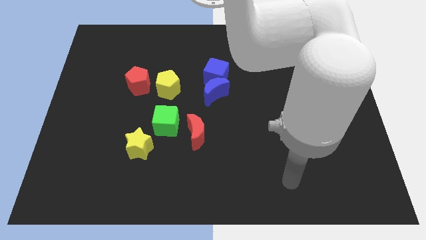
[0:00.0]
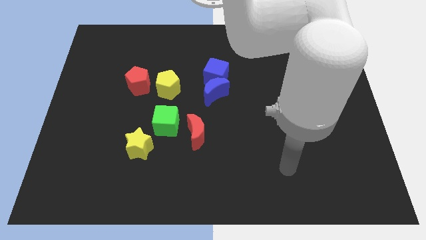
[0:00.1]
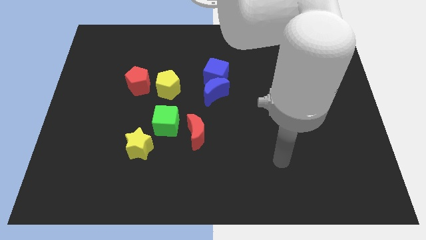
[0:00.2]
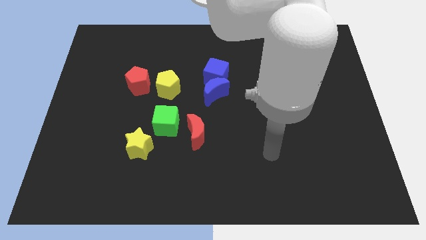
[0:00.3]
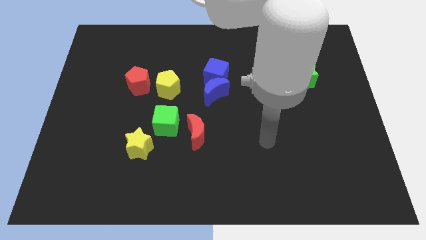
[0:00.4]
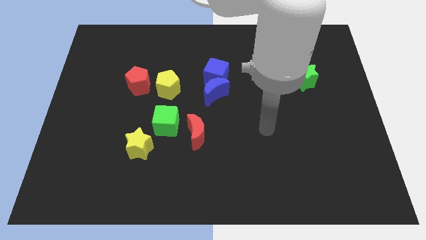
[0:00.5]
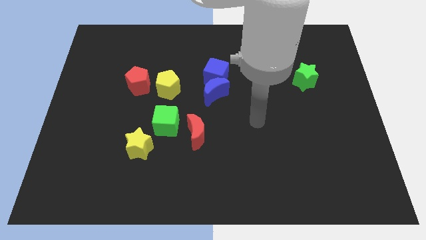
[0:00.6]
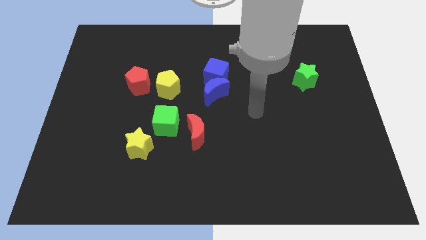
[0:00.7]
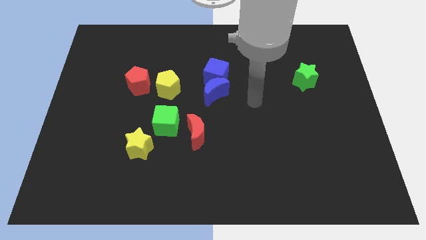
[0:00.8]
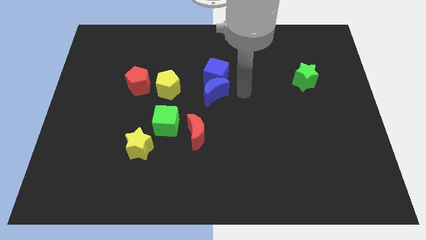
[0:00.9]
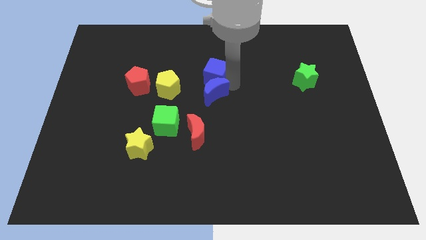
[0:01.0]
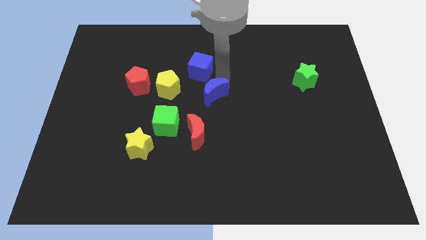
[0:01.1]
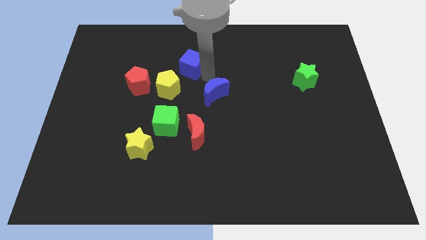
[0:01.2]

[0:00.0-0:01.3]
pull the blue moon apart from the blue cube

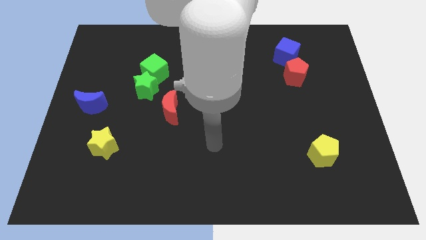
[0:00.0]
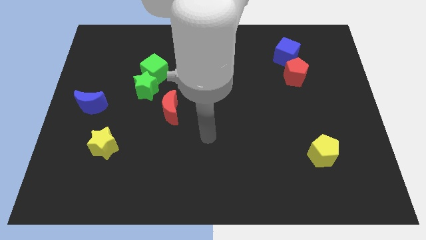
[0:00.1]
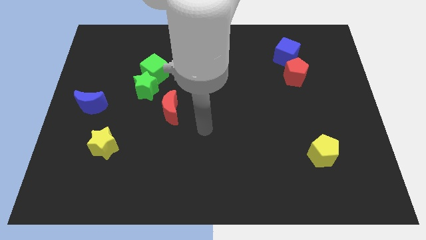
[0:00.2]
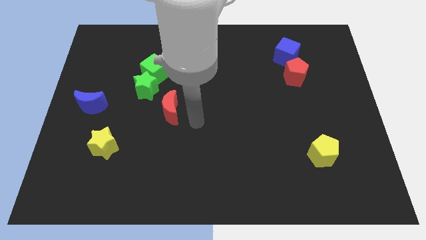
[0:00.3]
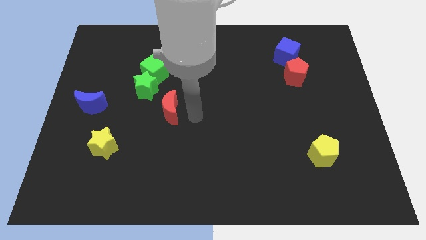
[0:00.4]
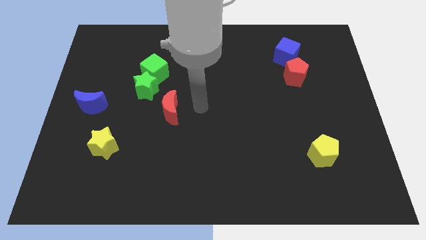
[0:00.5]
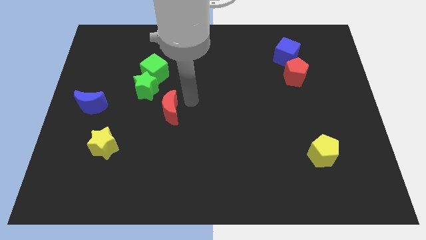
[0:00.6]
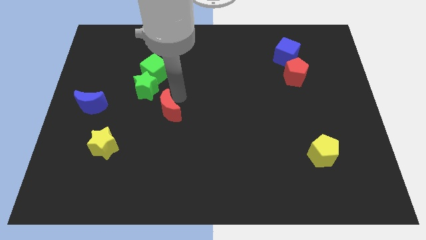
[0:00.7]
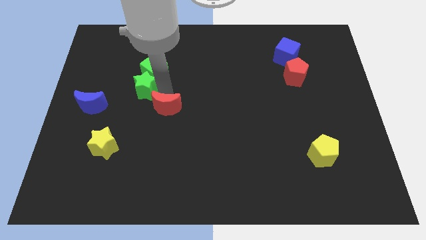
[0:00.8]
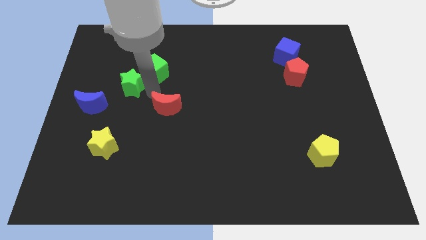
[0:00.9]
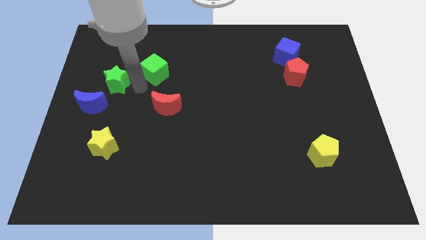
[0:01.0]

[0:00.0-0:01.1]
separate the green cube from the green star

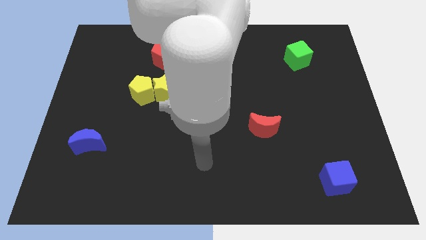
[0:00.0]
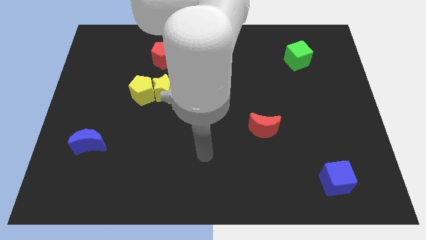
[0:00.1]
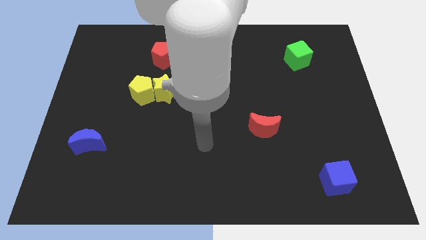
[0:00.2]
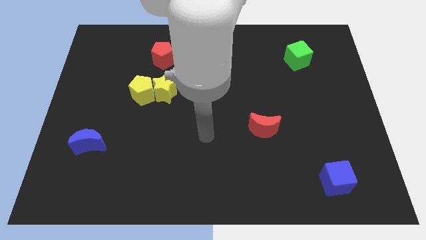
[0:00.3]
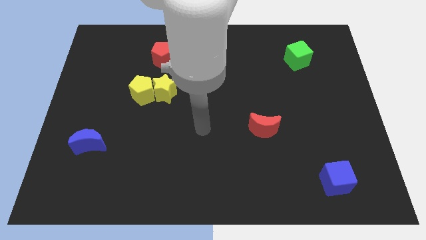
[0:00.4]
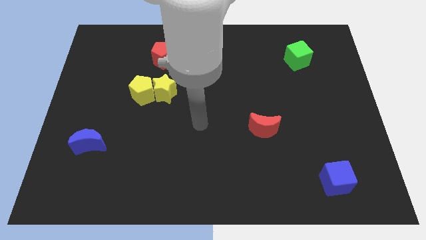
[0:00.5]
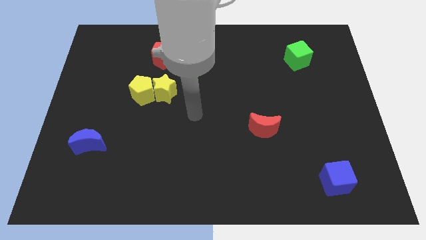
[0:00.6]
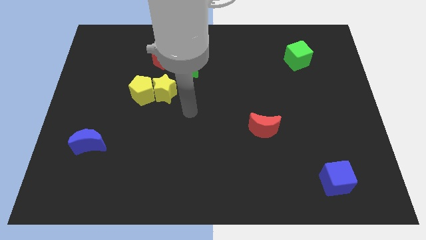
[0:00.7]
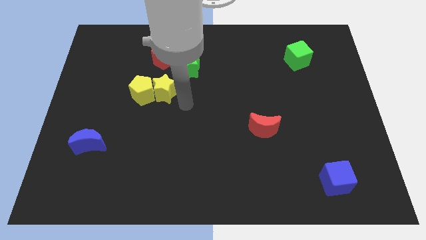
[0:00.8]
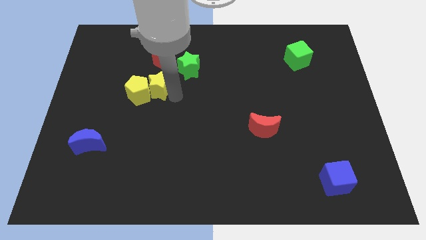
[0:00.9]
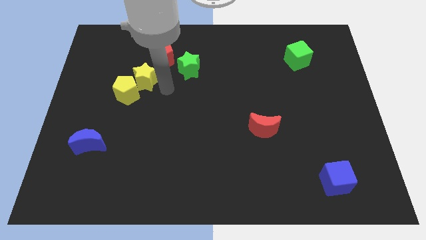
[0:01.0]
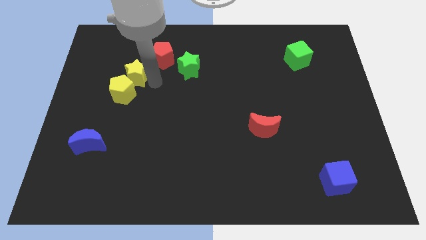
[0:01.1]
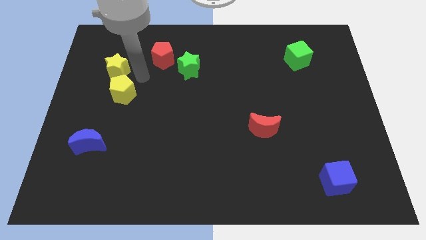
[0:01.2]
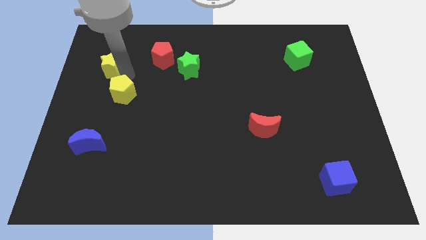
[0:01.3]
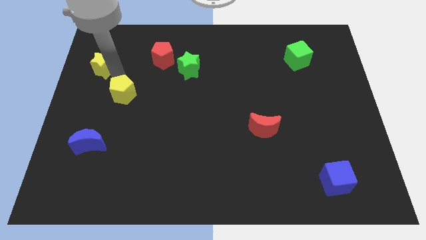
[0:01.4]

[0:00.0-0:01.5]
separate the yellow pentagon from the yellow star

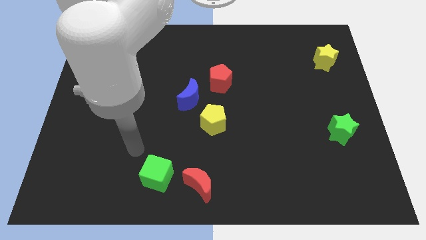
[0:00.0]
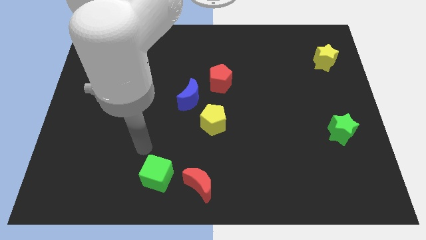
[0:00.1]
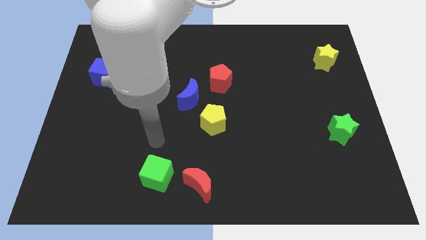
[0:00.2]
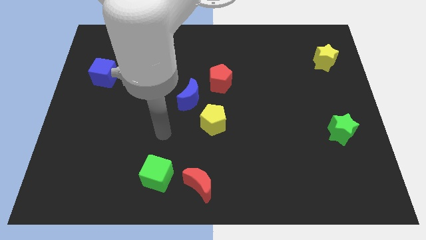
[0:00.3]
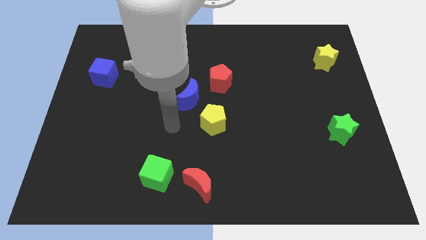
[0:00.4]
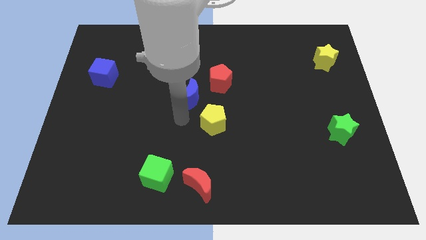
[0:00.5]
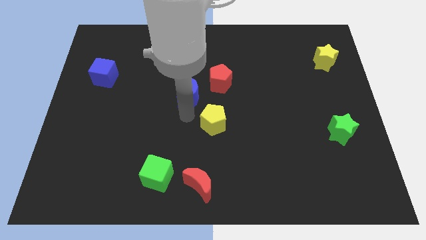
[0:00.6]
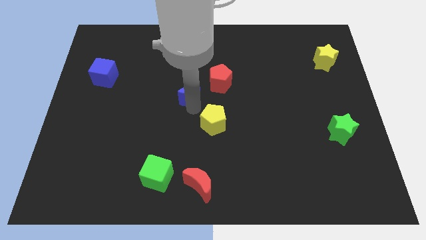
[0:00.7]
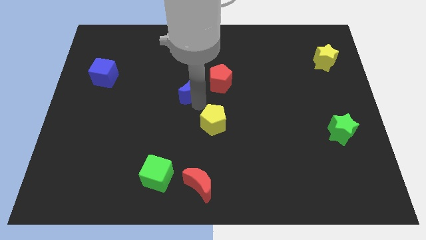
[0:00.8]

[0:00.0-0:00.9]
separate the yellow pentagon from the blue moon

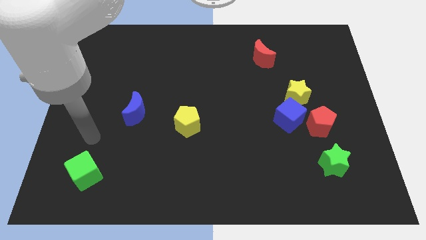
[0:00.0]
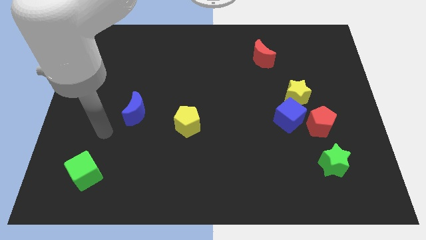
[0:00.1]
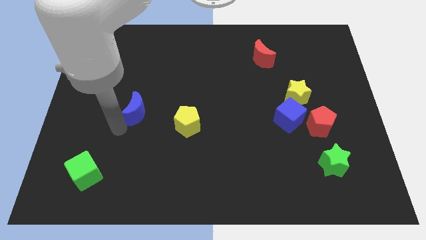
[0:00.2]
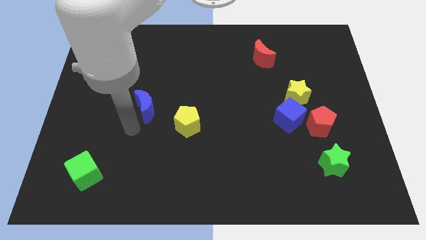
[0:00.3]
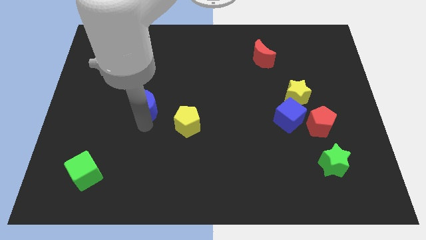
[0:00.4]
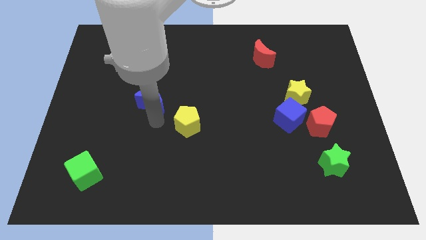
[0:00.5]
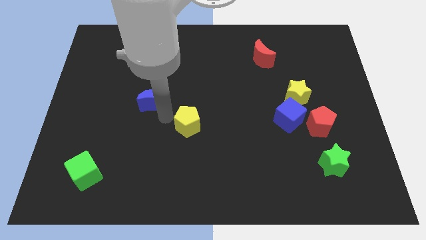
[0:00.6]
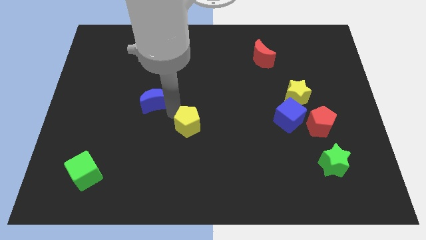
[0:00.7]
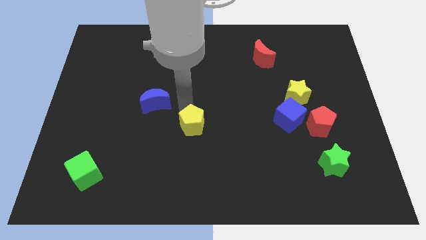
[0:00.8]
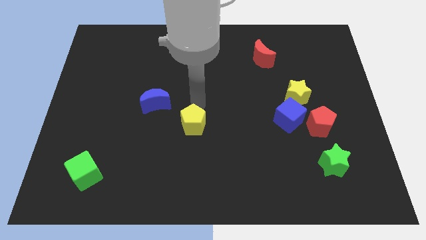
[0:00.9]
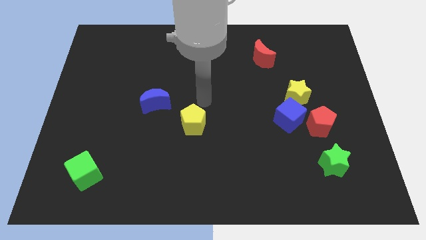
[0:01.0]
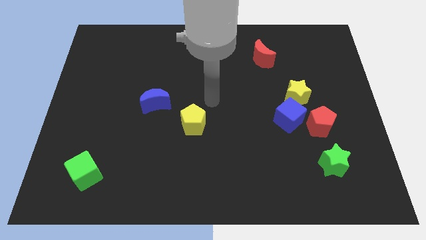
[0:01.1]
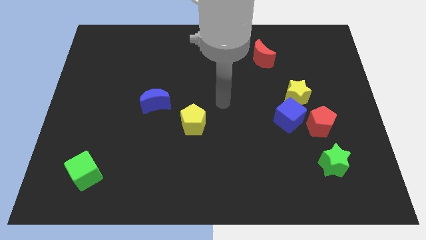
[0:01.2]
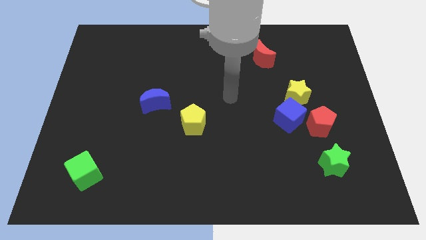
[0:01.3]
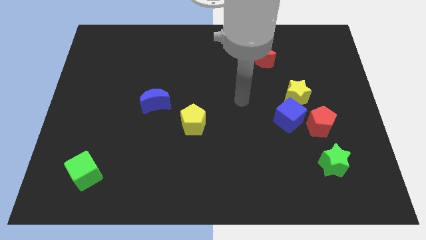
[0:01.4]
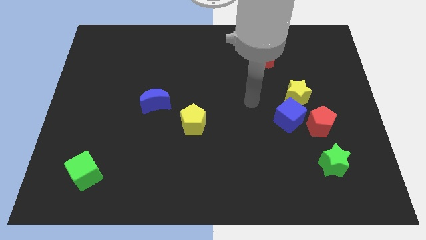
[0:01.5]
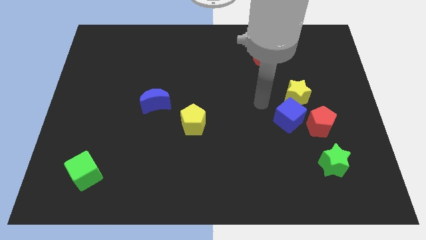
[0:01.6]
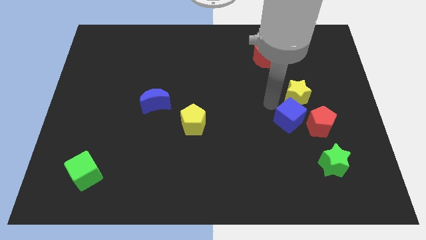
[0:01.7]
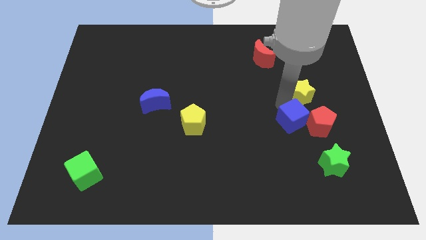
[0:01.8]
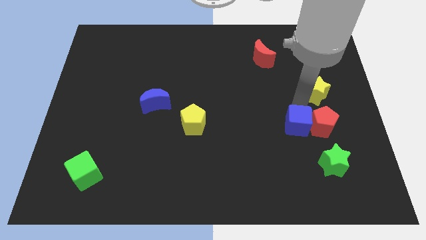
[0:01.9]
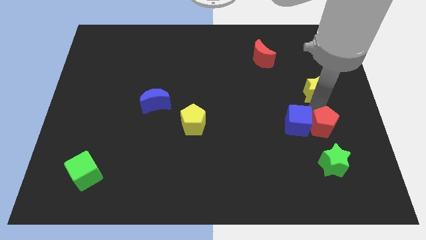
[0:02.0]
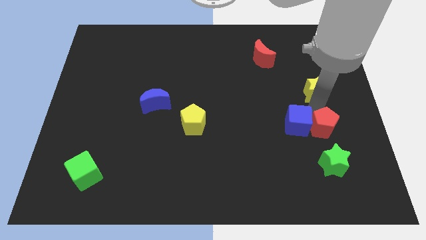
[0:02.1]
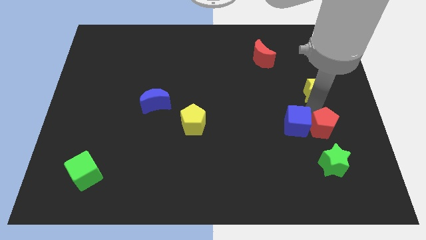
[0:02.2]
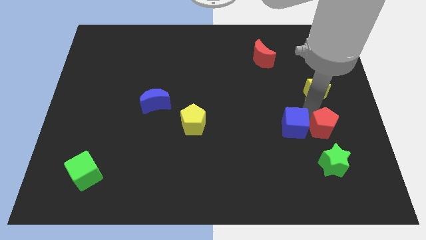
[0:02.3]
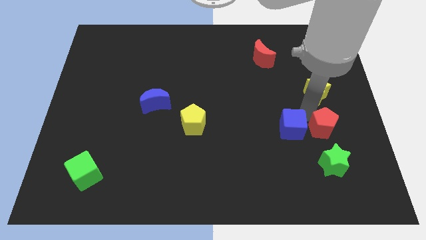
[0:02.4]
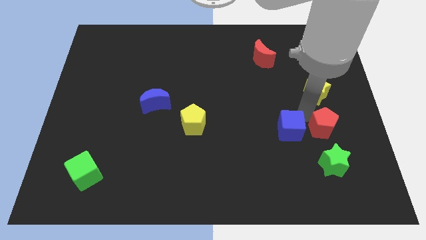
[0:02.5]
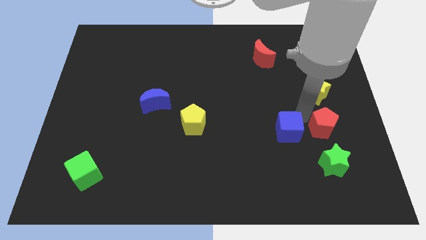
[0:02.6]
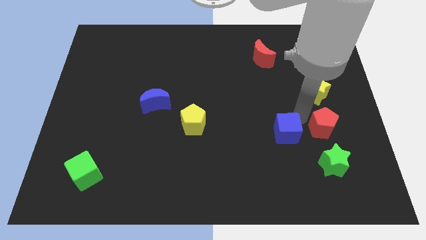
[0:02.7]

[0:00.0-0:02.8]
pull the blue cube apart from the yellow star and red pentagon

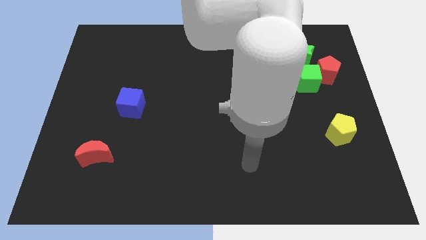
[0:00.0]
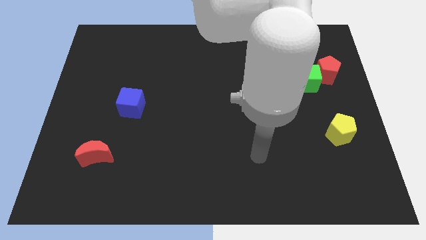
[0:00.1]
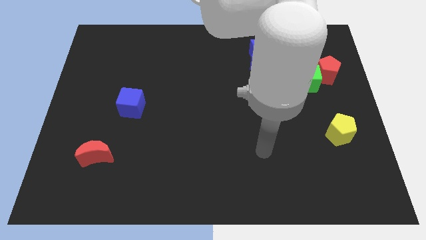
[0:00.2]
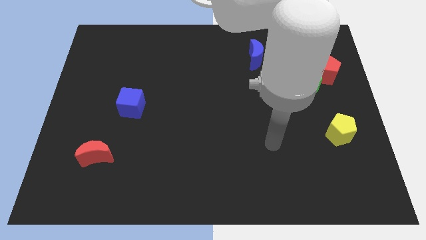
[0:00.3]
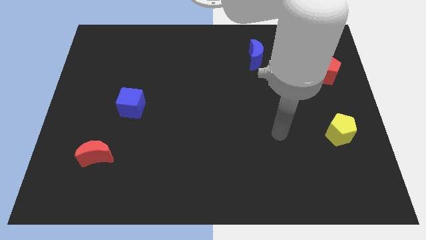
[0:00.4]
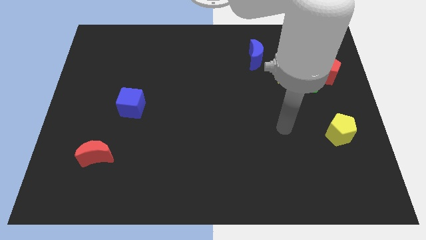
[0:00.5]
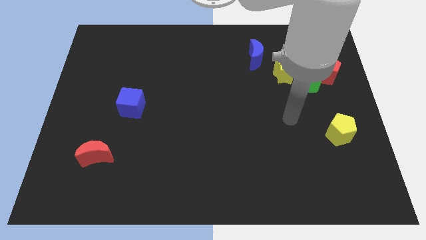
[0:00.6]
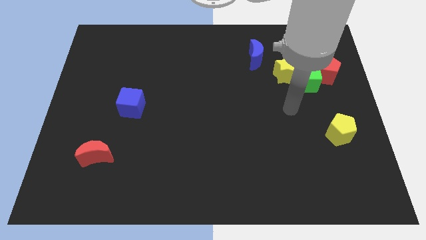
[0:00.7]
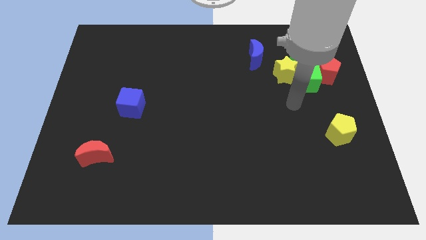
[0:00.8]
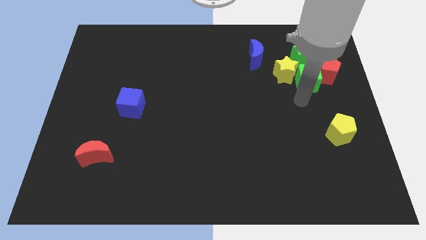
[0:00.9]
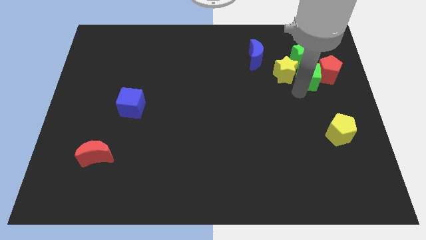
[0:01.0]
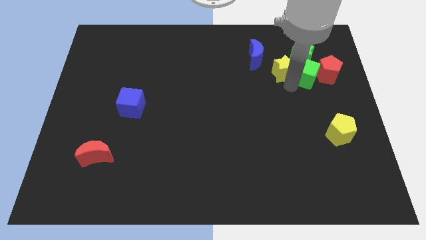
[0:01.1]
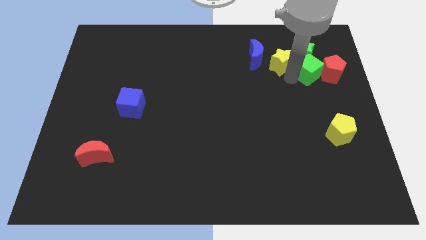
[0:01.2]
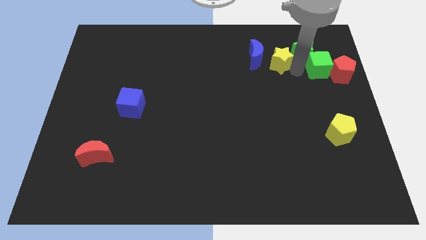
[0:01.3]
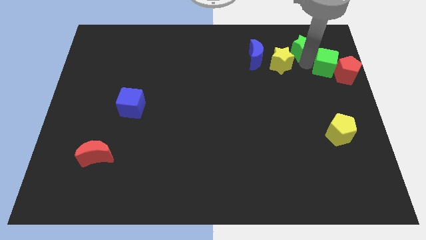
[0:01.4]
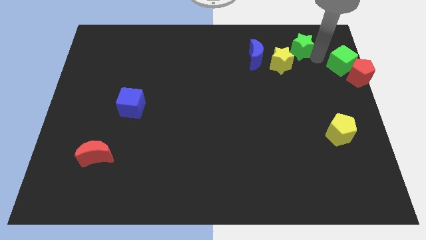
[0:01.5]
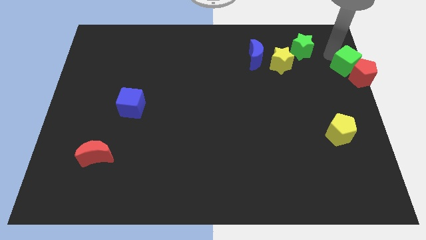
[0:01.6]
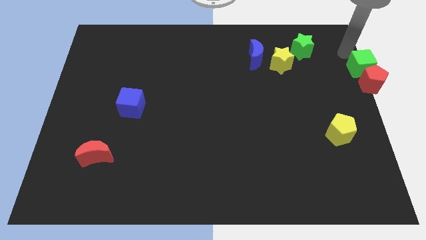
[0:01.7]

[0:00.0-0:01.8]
move the green cube away from the red pentagon, yellow star, and green star
